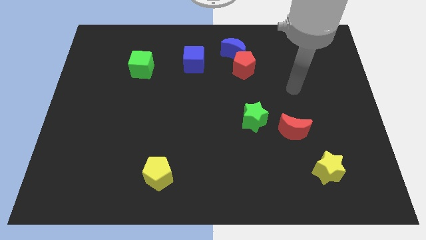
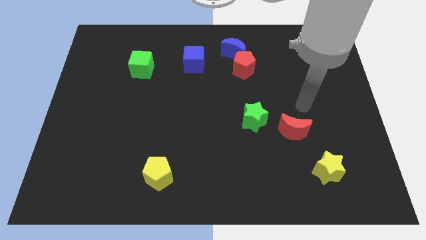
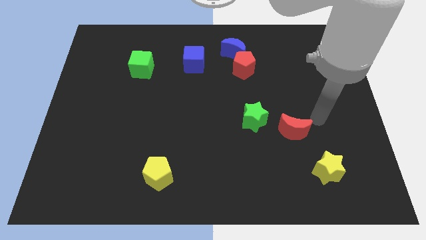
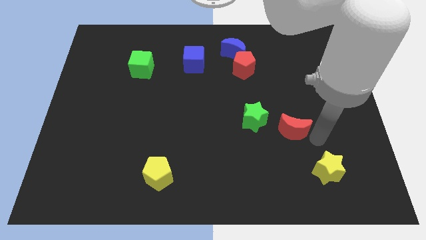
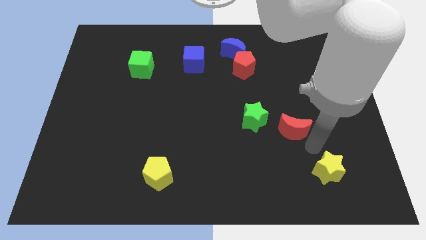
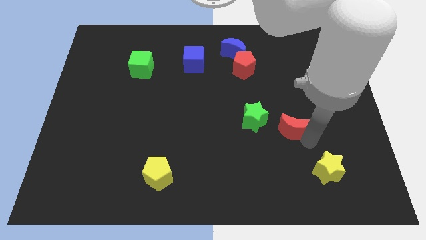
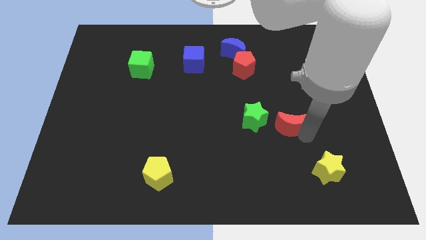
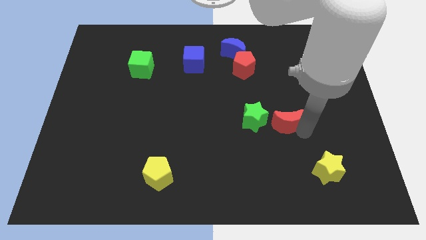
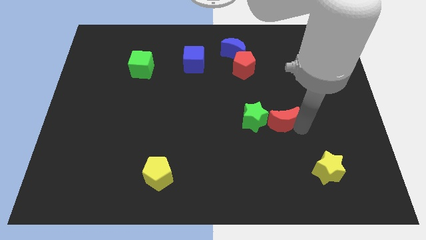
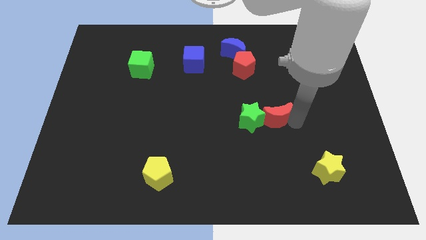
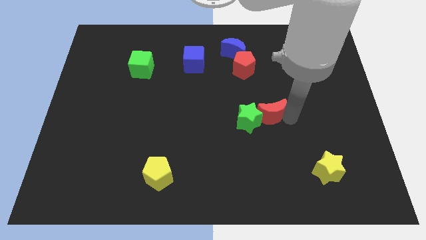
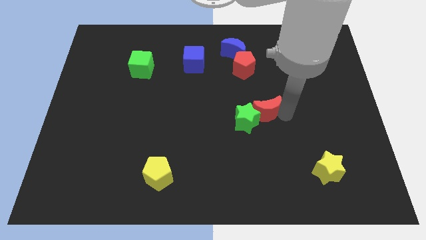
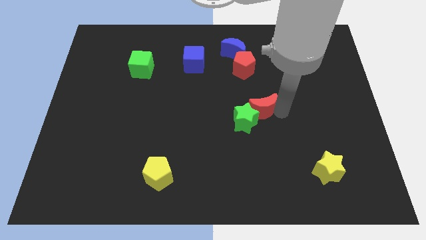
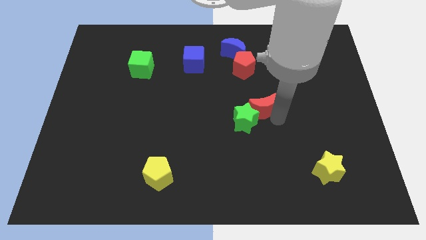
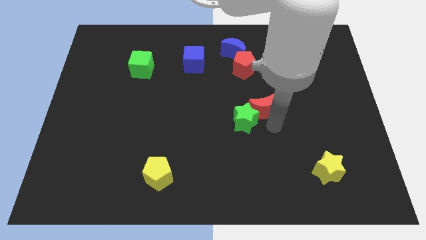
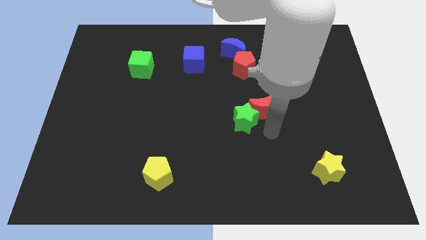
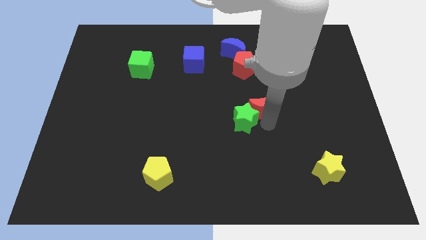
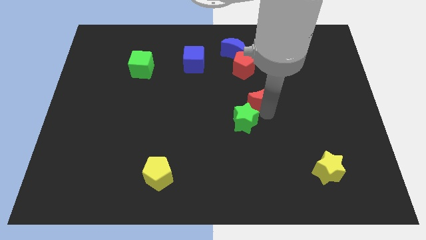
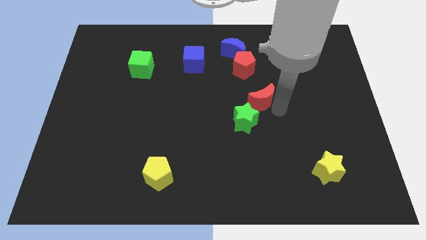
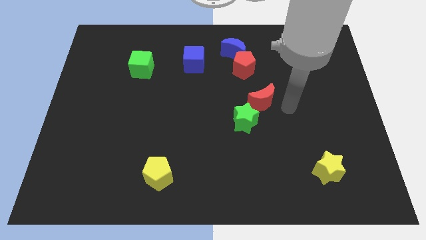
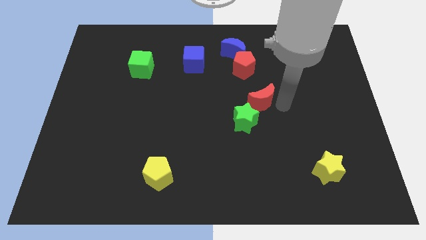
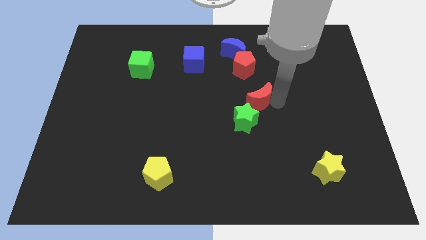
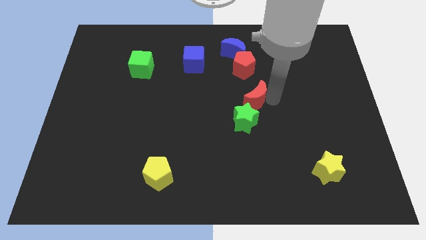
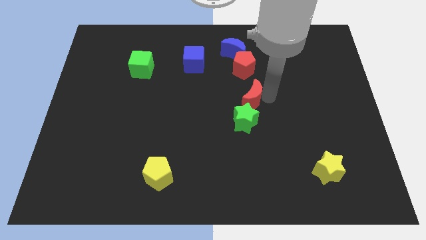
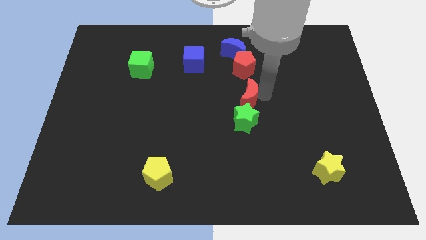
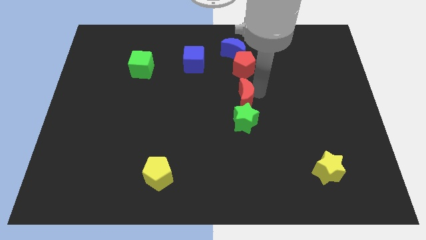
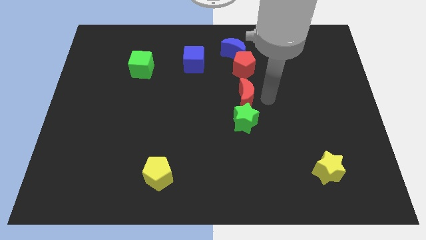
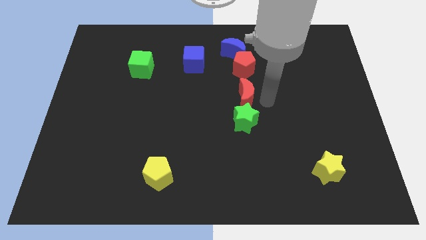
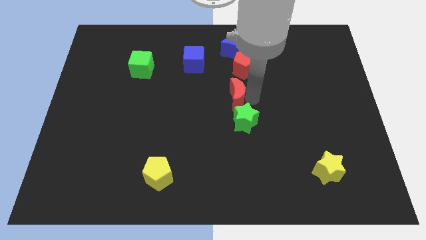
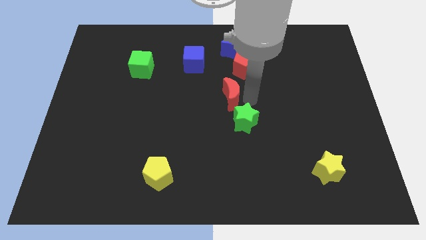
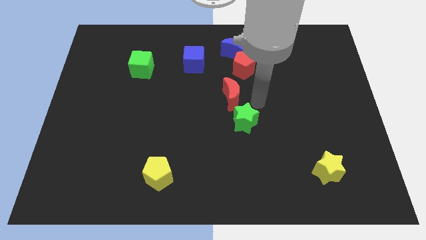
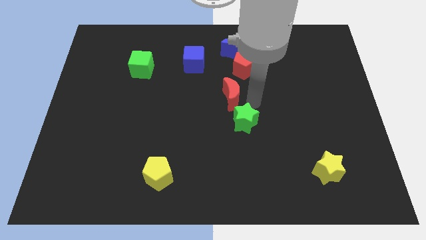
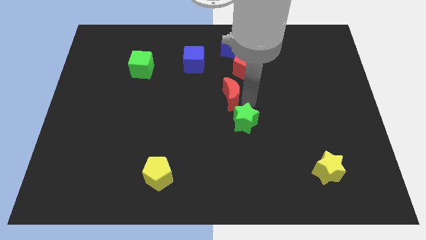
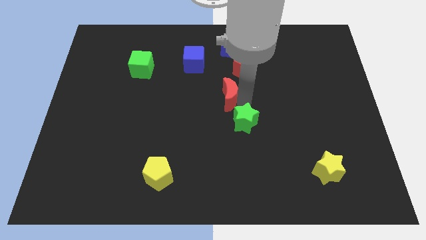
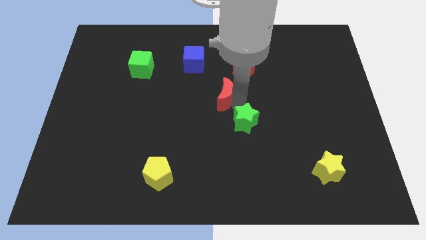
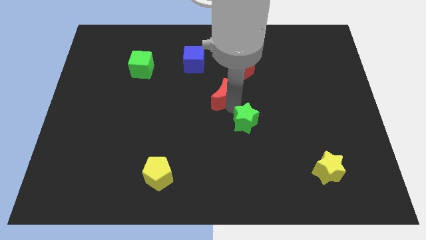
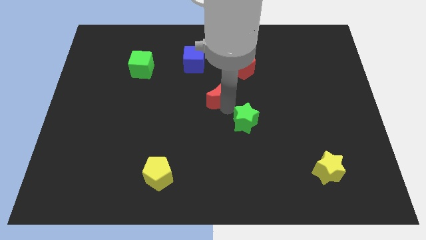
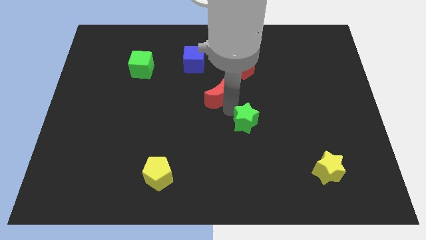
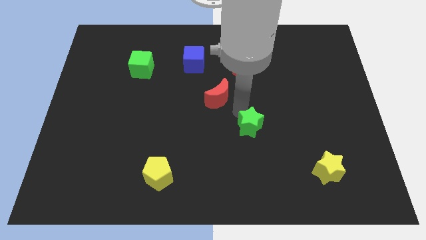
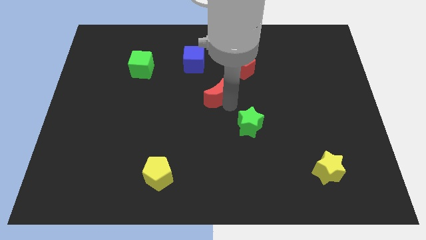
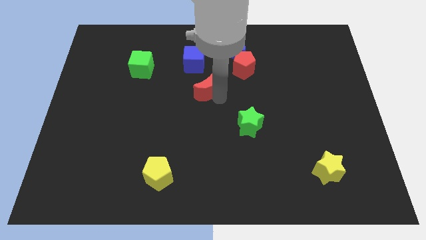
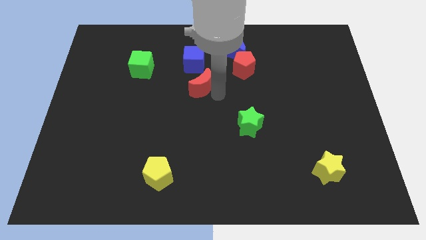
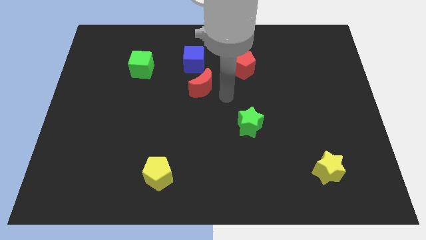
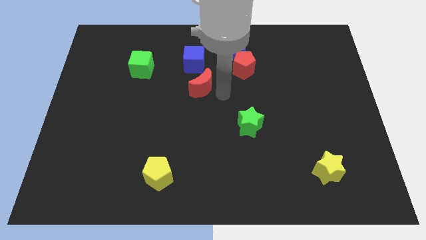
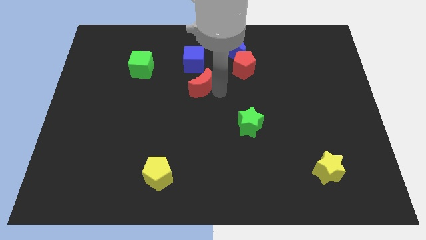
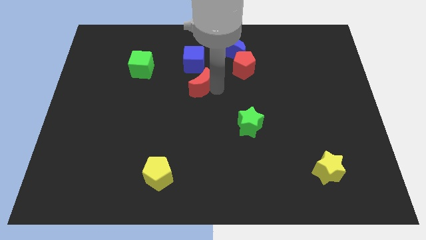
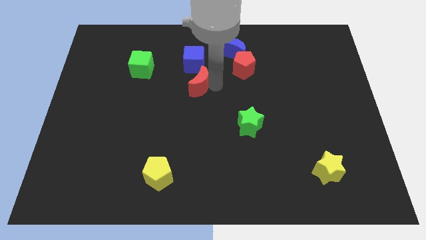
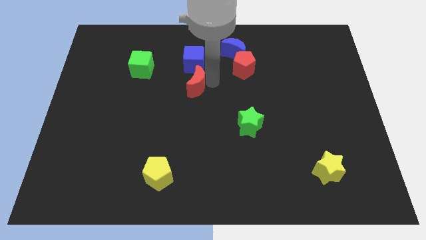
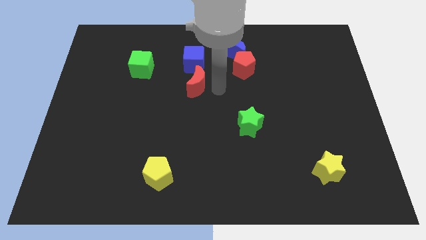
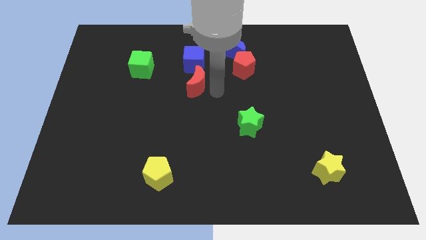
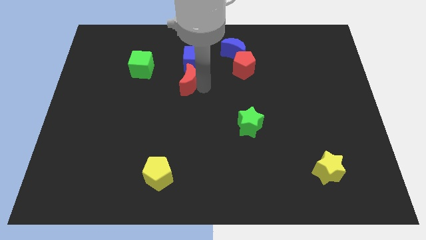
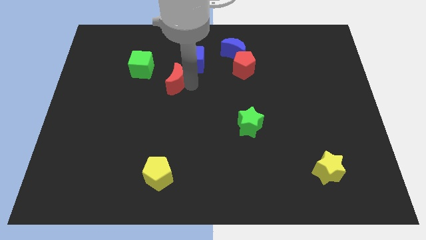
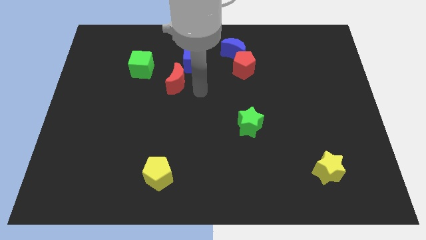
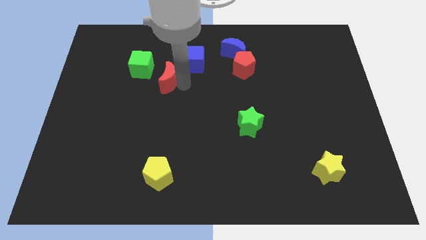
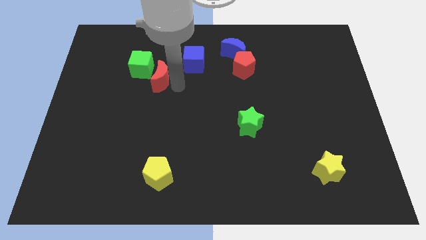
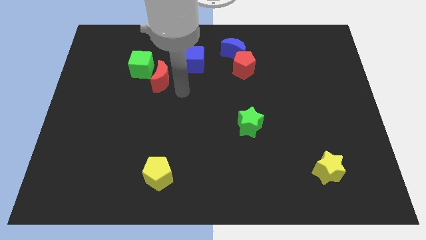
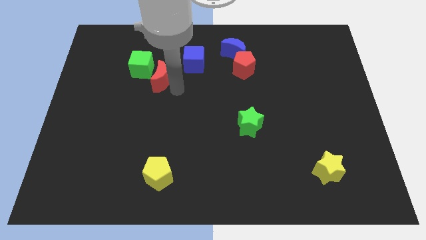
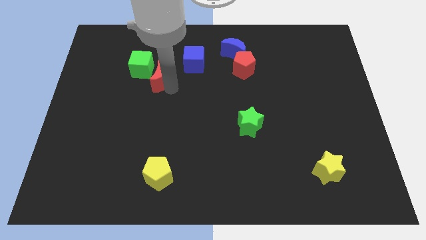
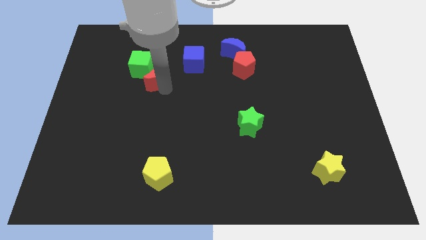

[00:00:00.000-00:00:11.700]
slide the red moon towards the green cube

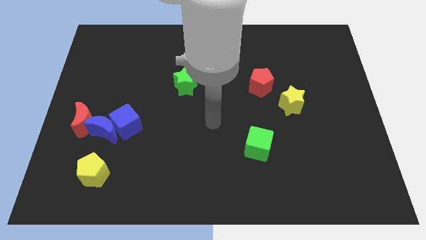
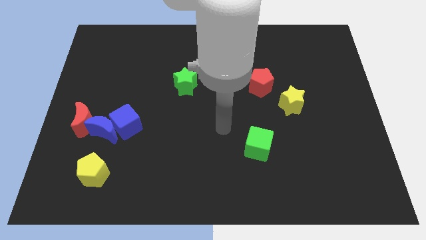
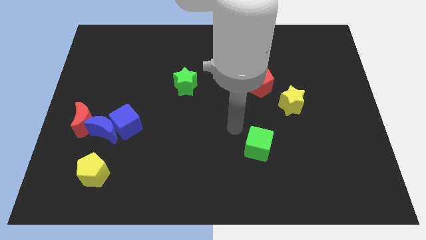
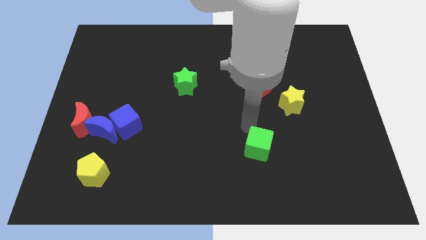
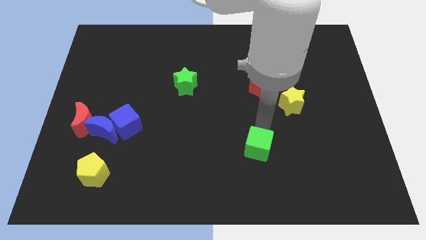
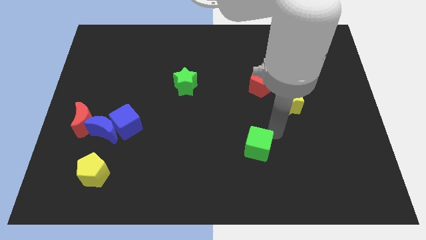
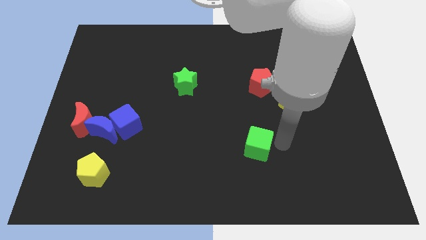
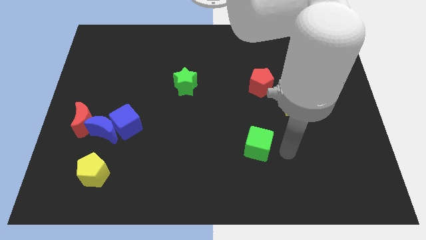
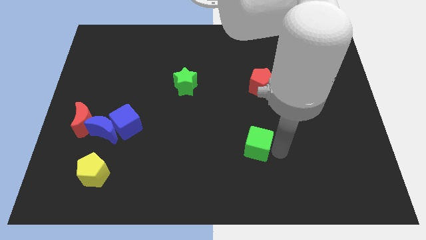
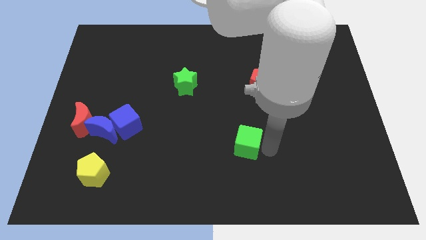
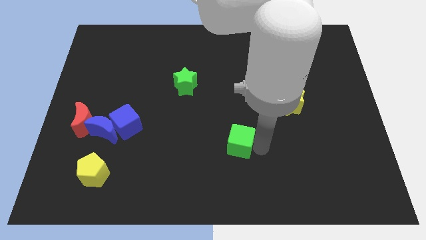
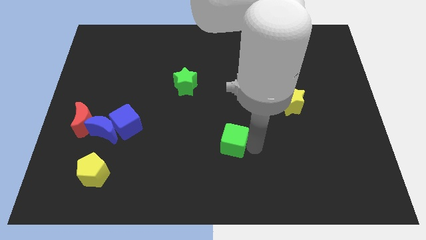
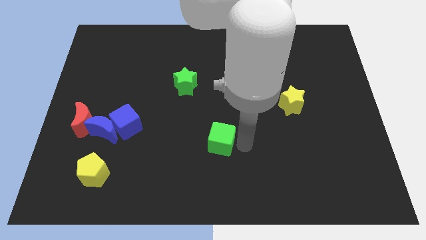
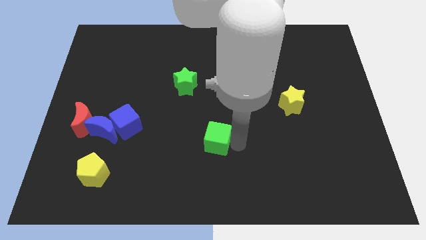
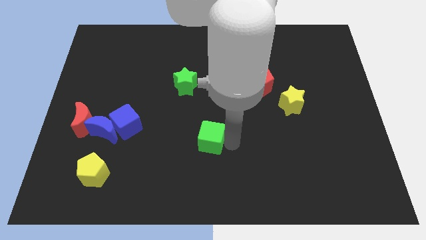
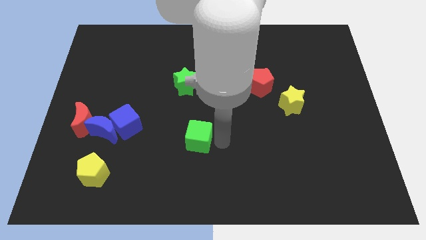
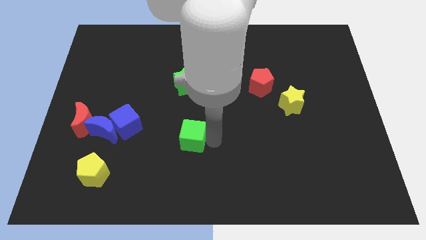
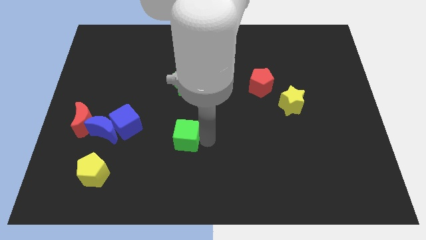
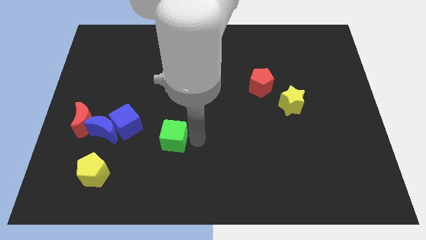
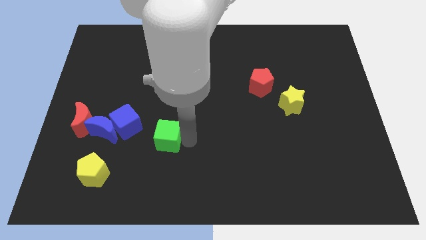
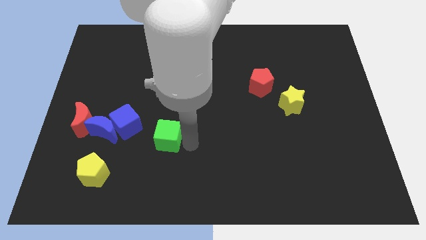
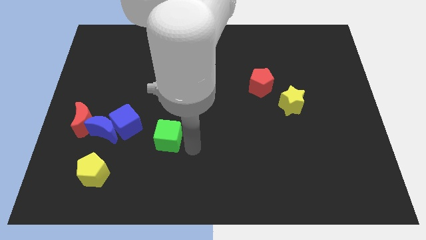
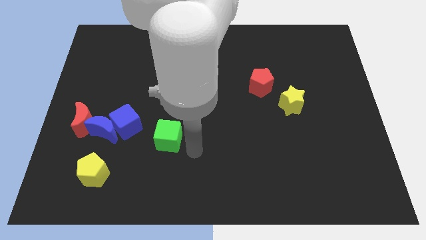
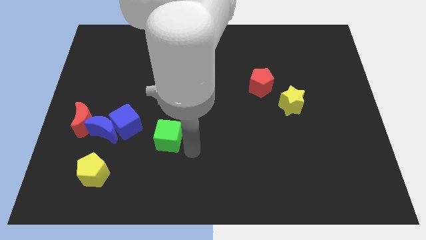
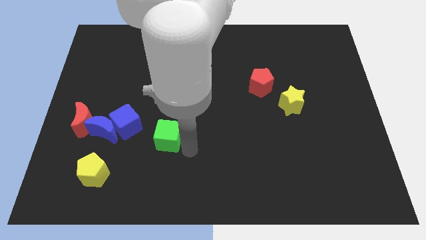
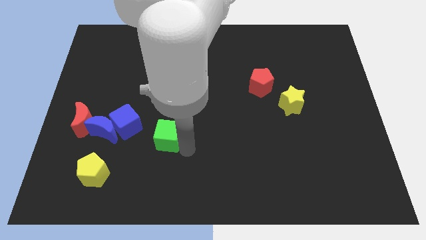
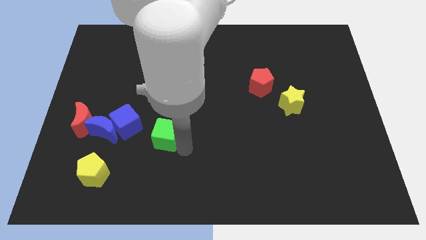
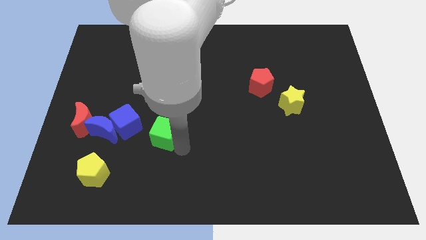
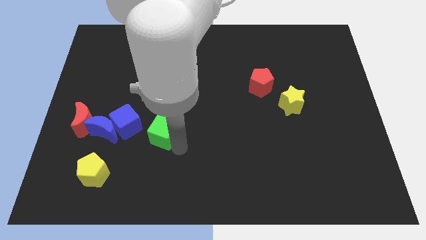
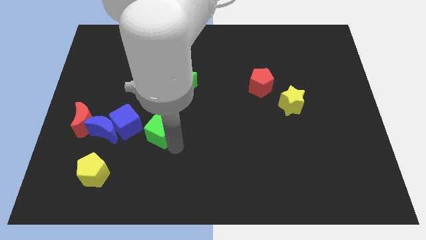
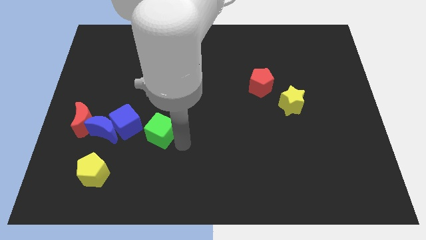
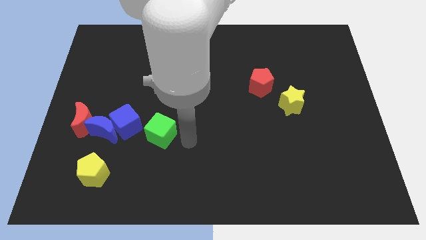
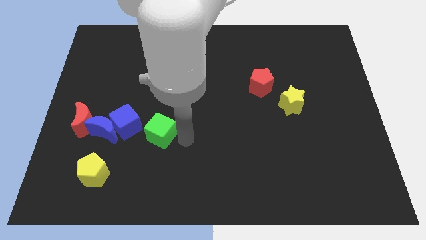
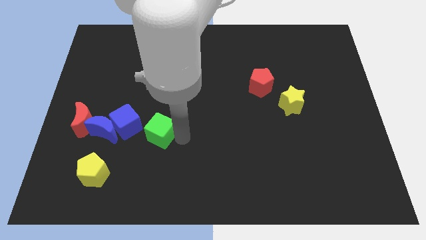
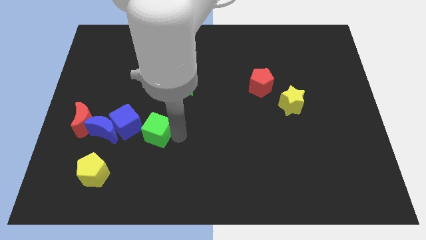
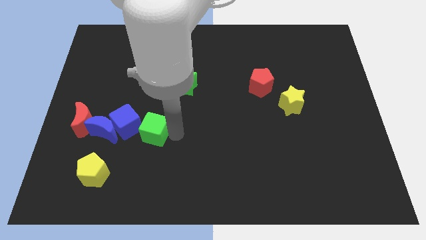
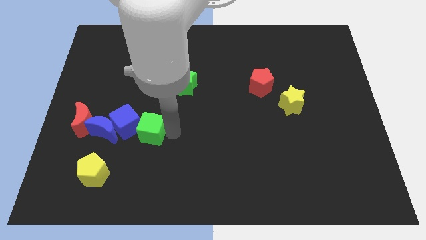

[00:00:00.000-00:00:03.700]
put the green cube towards the blue cube
